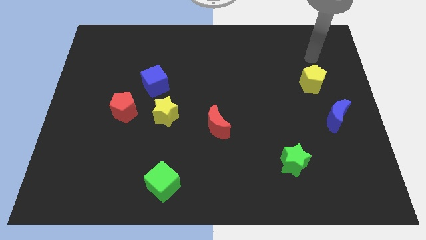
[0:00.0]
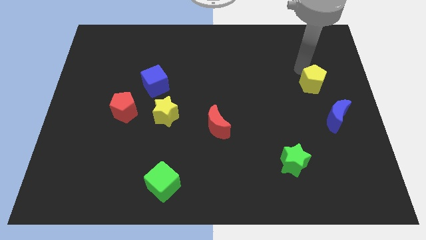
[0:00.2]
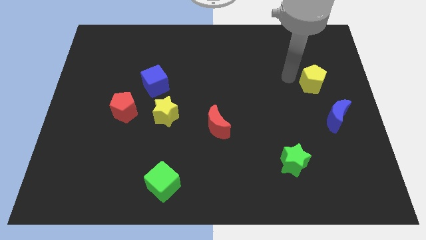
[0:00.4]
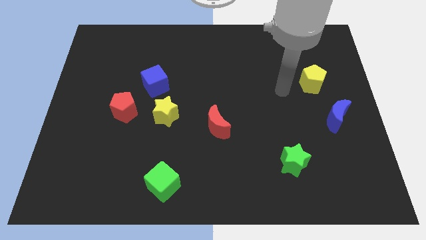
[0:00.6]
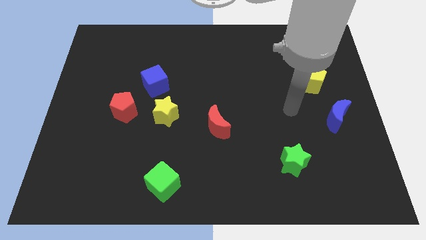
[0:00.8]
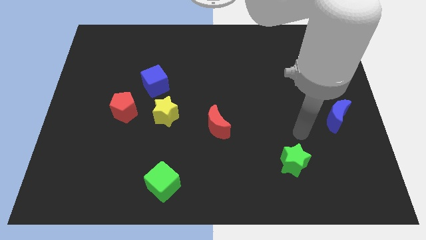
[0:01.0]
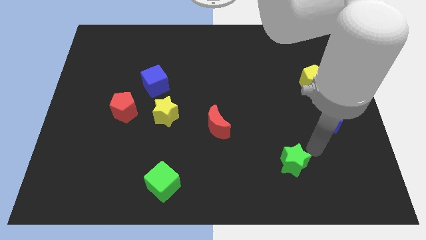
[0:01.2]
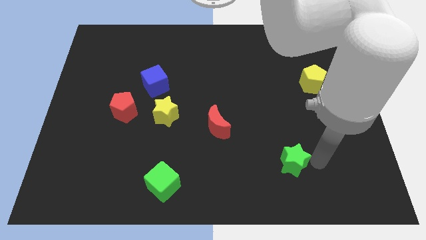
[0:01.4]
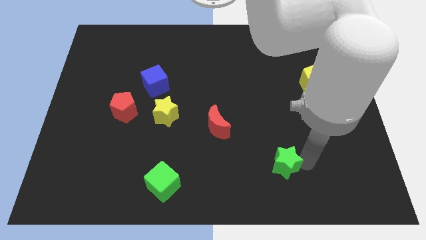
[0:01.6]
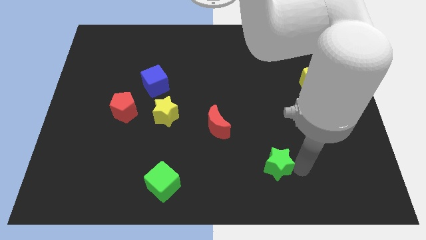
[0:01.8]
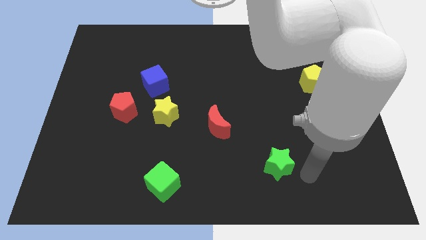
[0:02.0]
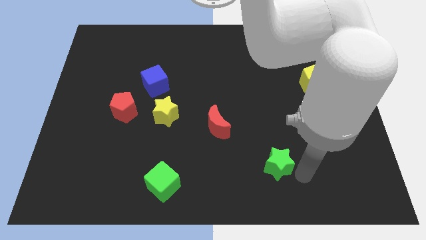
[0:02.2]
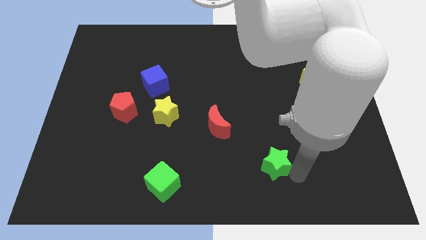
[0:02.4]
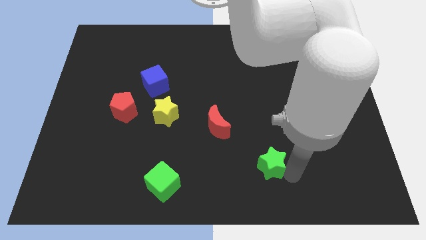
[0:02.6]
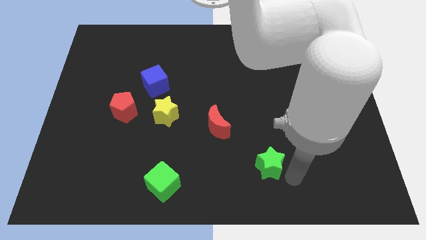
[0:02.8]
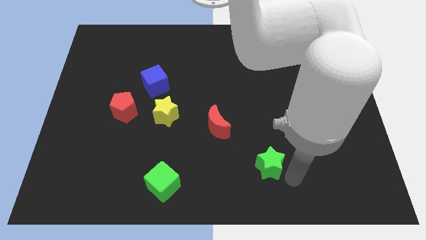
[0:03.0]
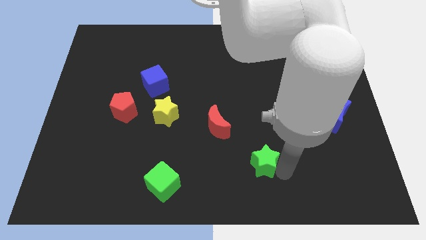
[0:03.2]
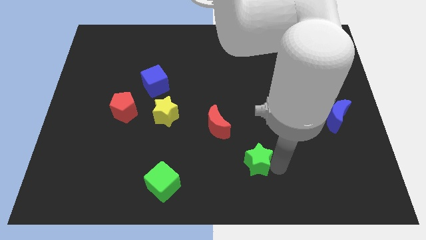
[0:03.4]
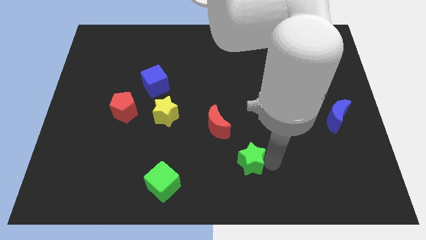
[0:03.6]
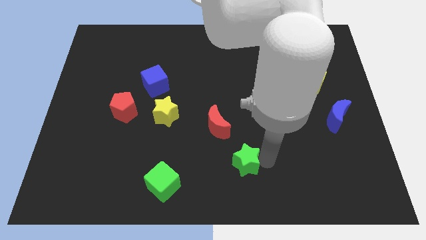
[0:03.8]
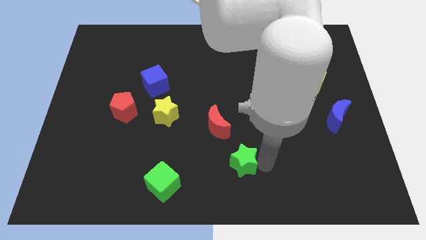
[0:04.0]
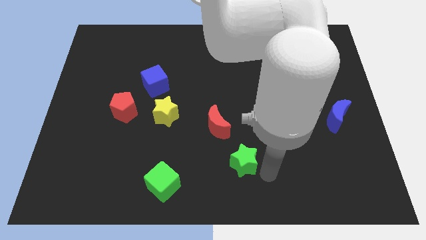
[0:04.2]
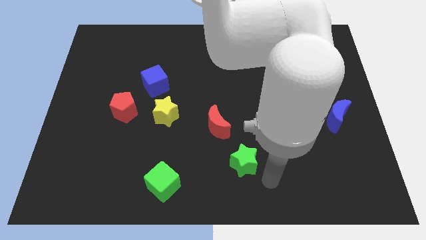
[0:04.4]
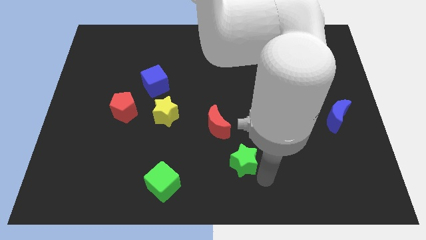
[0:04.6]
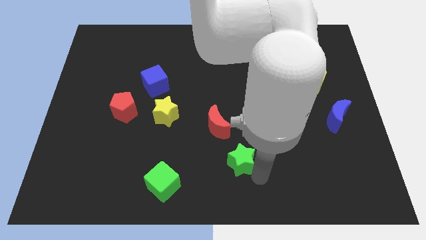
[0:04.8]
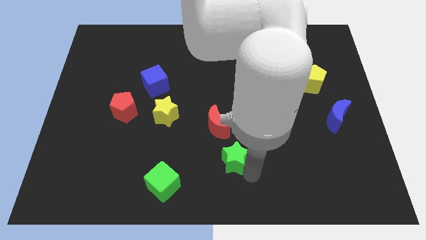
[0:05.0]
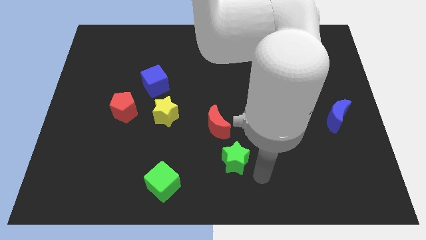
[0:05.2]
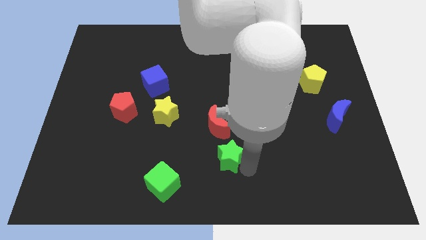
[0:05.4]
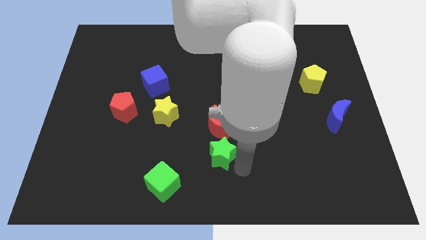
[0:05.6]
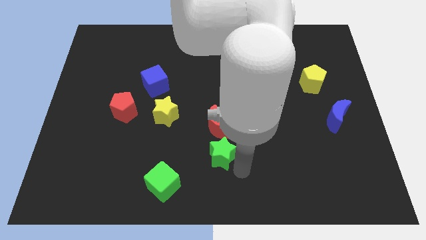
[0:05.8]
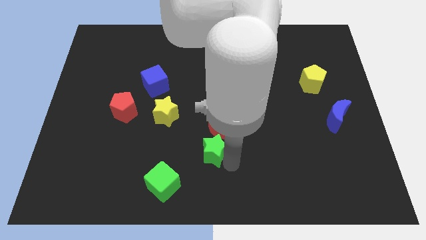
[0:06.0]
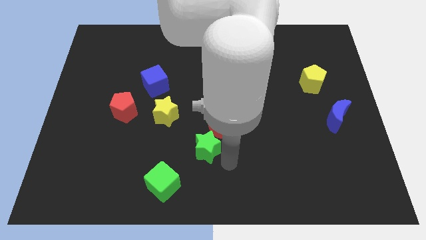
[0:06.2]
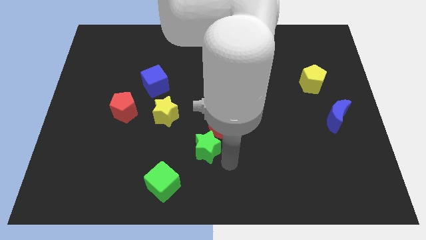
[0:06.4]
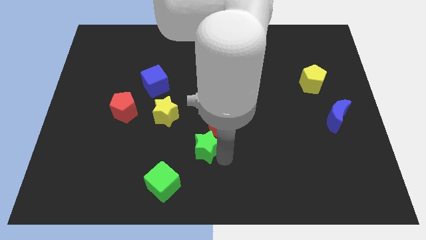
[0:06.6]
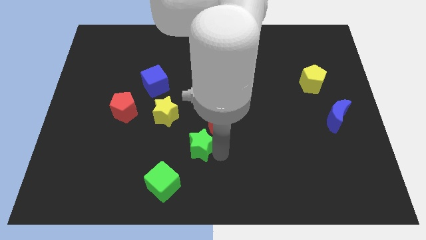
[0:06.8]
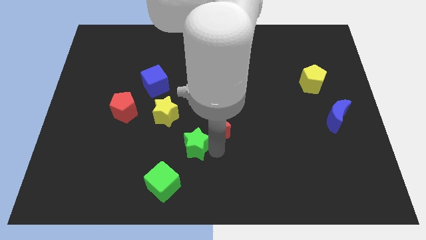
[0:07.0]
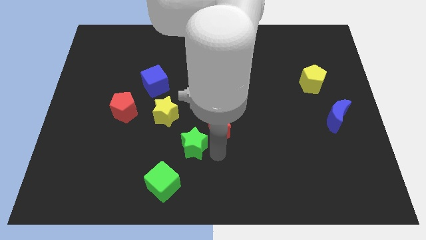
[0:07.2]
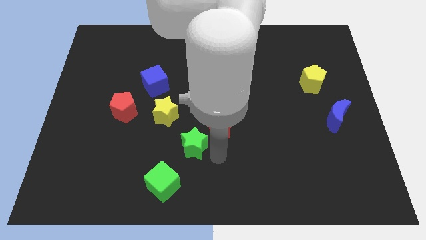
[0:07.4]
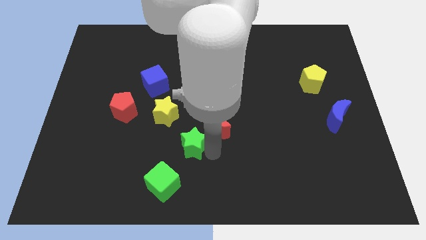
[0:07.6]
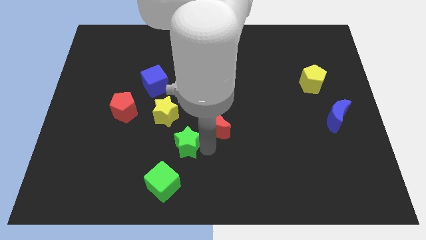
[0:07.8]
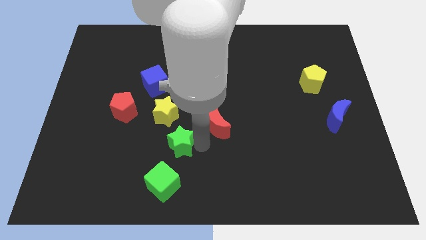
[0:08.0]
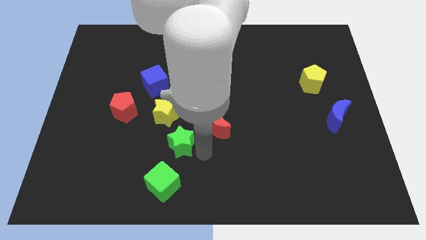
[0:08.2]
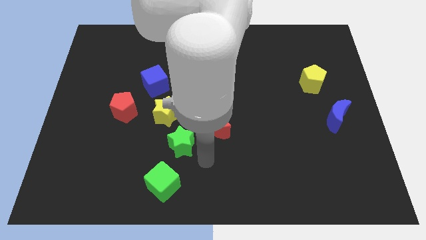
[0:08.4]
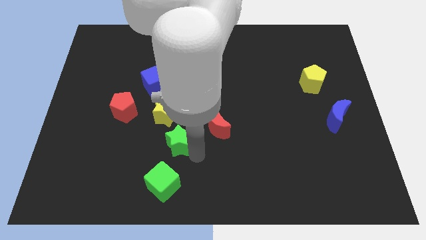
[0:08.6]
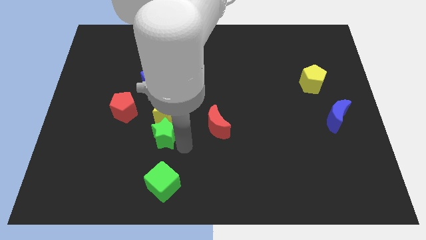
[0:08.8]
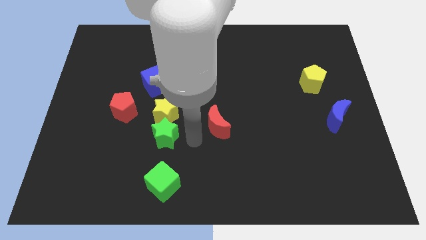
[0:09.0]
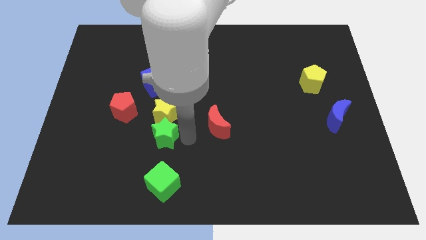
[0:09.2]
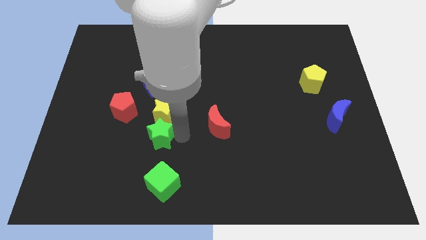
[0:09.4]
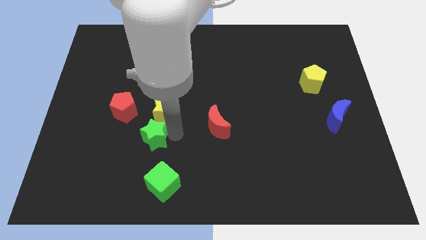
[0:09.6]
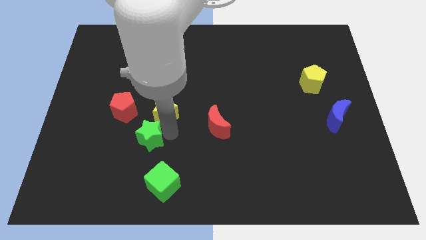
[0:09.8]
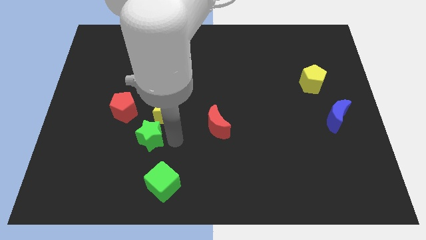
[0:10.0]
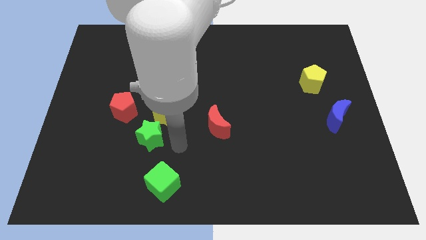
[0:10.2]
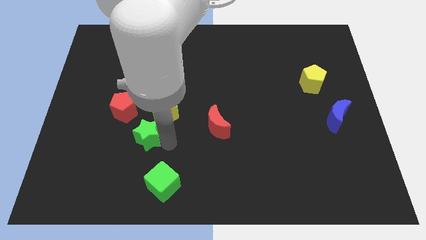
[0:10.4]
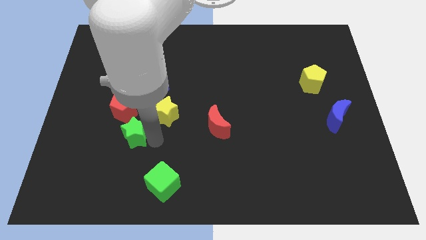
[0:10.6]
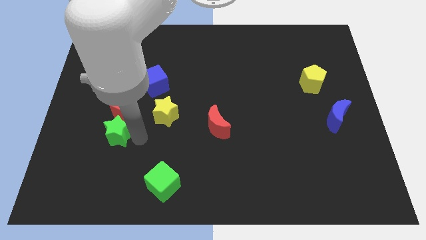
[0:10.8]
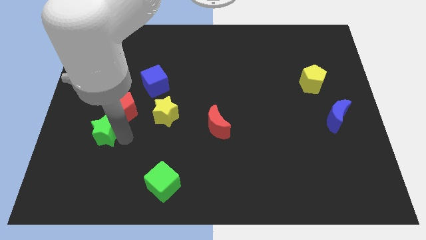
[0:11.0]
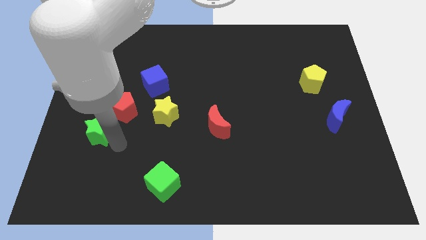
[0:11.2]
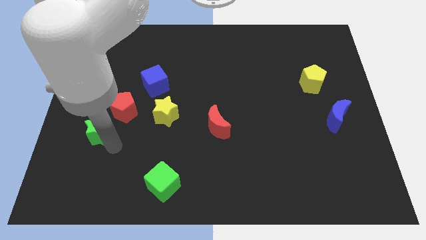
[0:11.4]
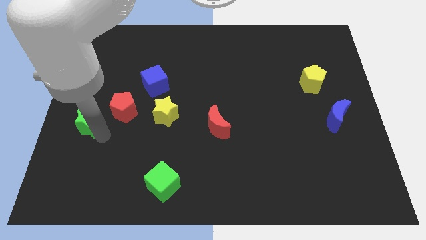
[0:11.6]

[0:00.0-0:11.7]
push the green star to the left side of the board

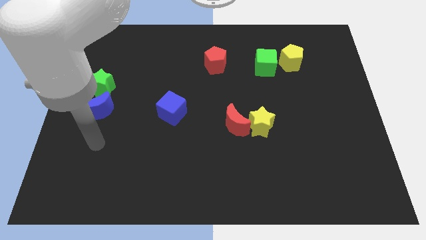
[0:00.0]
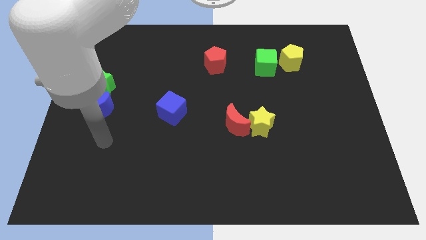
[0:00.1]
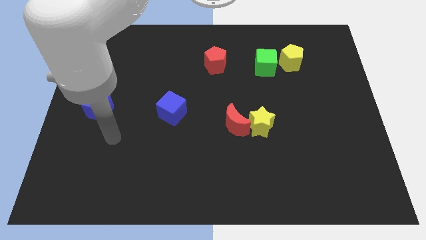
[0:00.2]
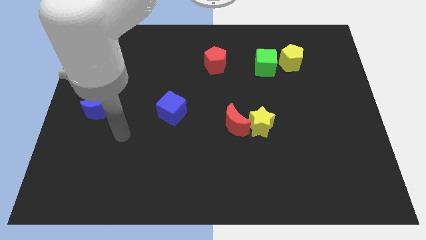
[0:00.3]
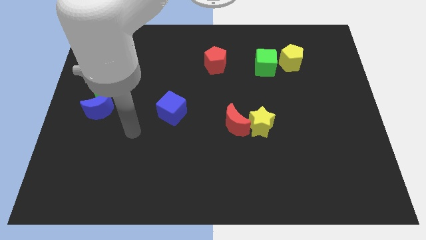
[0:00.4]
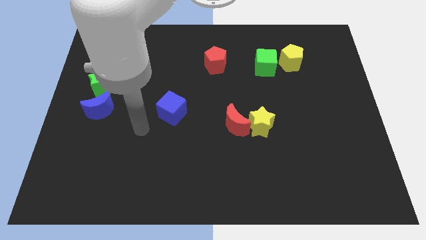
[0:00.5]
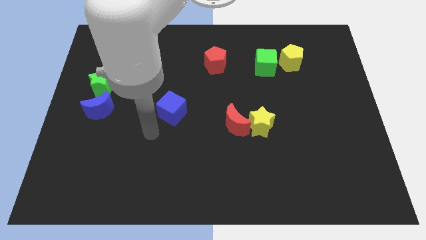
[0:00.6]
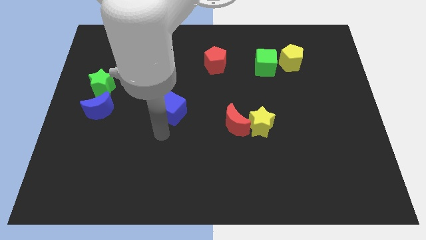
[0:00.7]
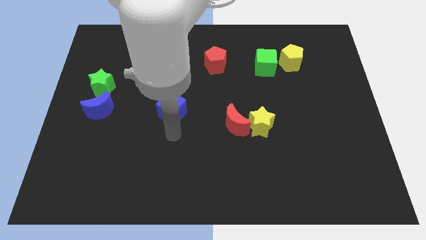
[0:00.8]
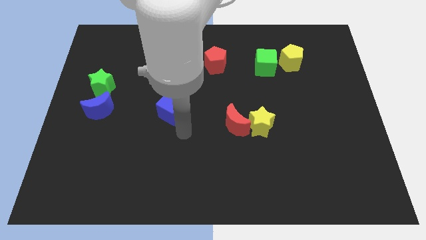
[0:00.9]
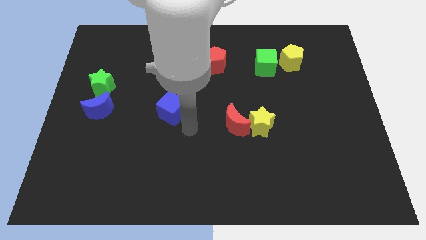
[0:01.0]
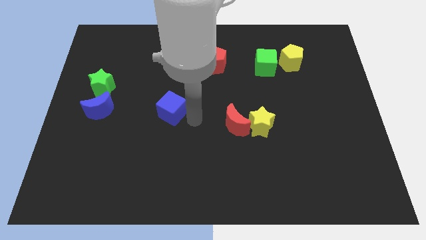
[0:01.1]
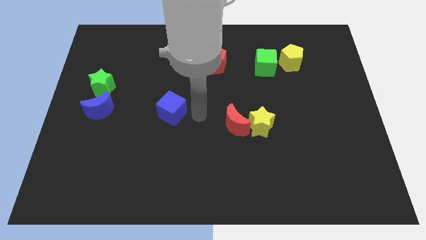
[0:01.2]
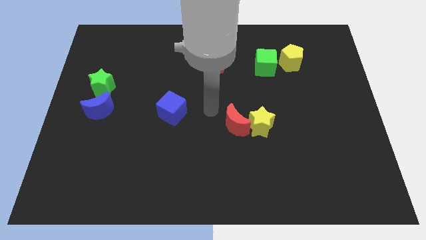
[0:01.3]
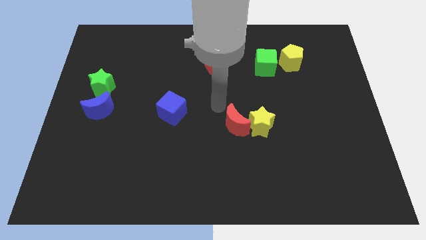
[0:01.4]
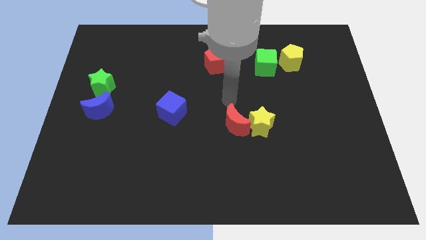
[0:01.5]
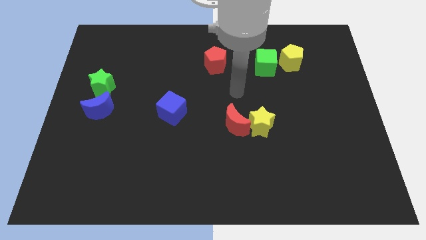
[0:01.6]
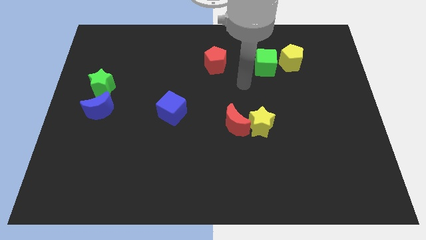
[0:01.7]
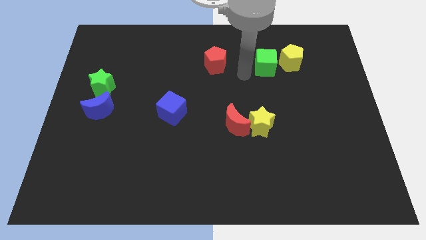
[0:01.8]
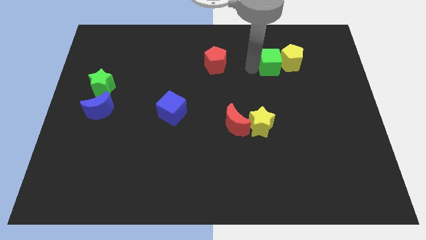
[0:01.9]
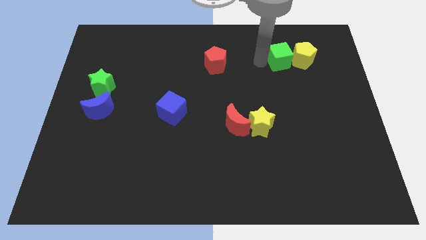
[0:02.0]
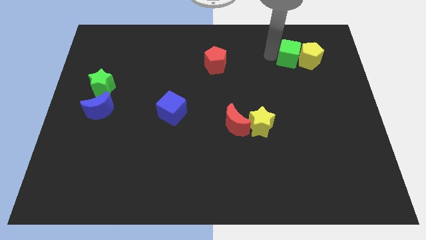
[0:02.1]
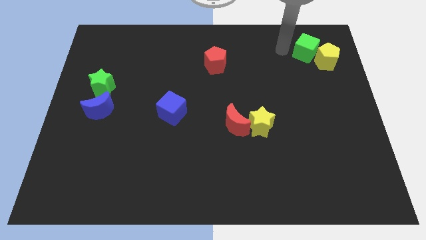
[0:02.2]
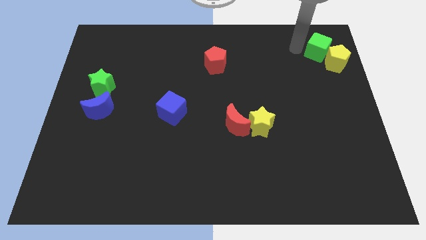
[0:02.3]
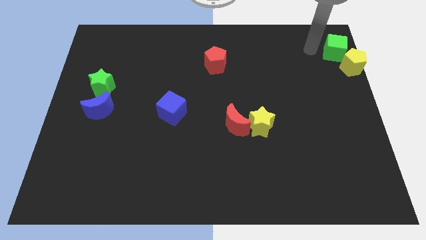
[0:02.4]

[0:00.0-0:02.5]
slide the yellow pentagon to the right side
